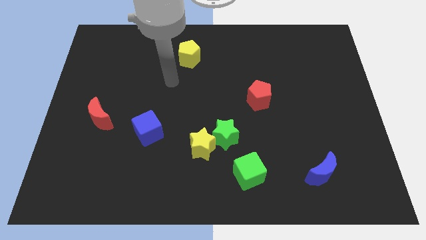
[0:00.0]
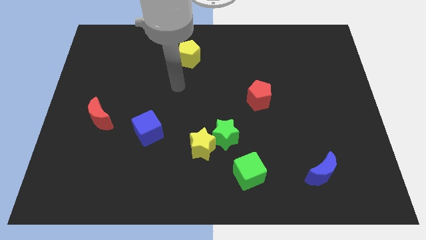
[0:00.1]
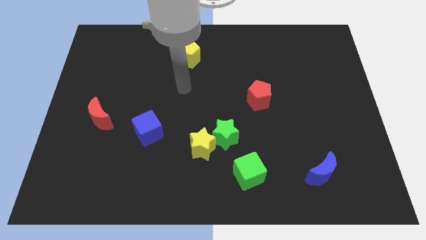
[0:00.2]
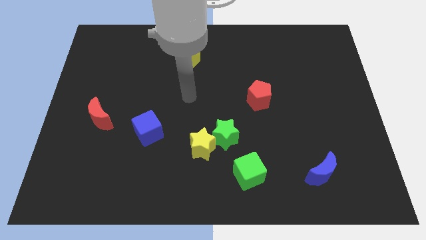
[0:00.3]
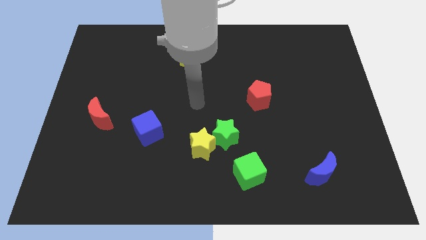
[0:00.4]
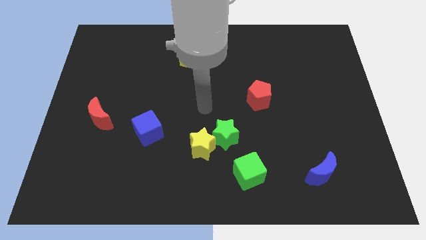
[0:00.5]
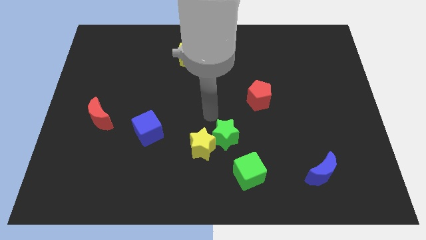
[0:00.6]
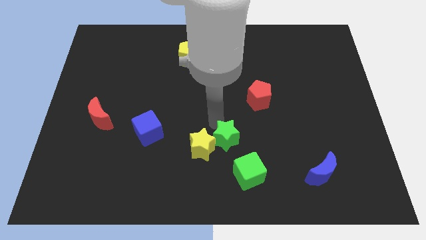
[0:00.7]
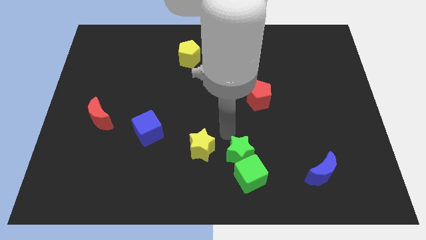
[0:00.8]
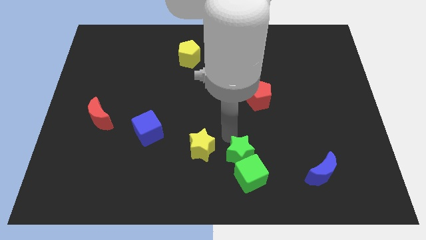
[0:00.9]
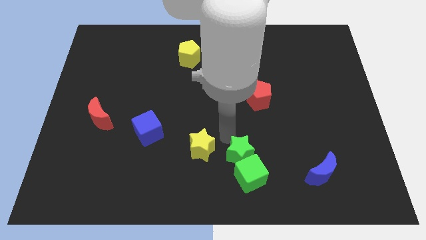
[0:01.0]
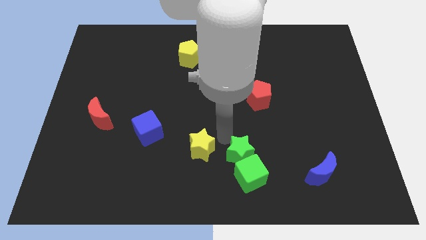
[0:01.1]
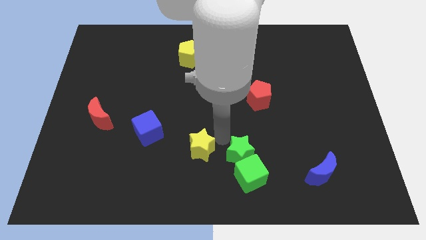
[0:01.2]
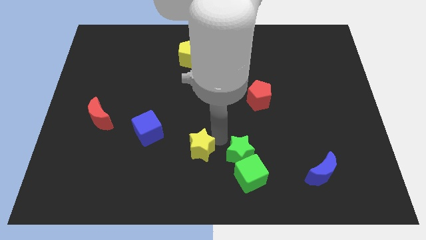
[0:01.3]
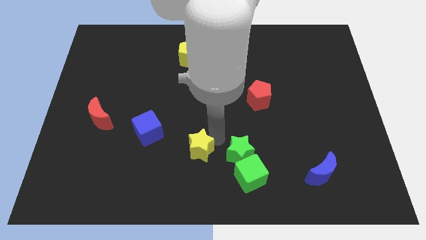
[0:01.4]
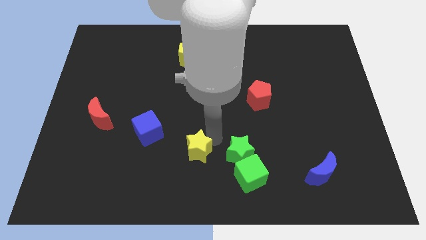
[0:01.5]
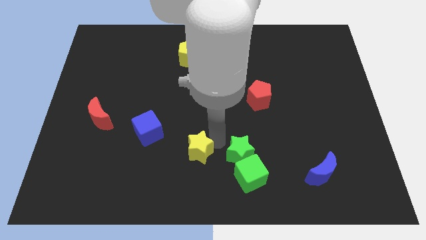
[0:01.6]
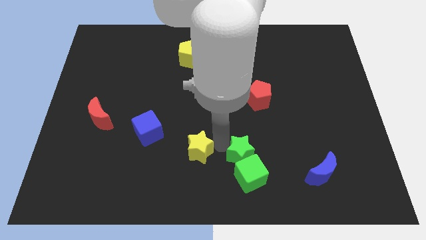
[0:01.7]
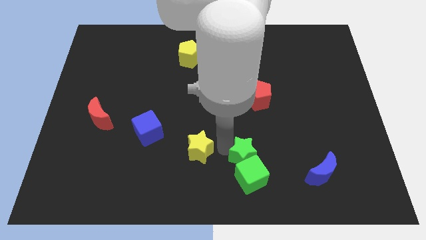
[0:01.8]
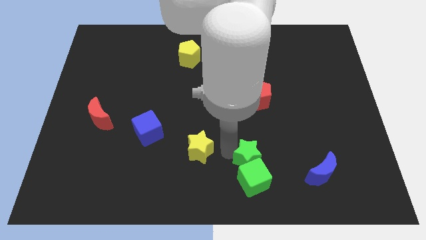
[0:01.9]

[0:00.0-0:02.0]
separate the yellow star from the green star

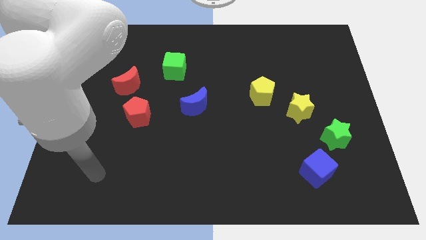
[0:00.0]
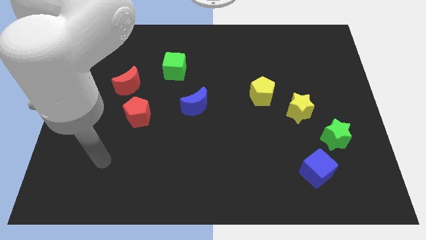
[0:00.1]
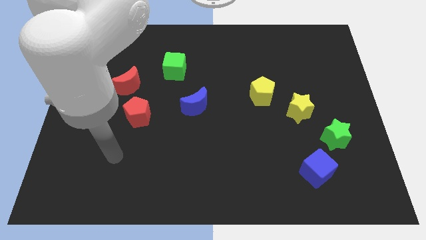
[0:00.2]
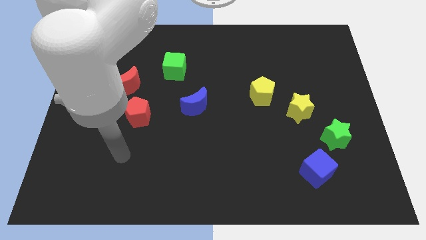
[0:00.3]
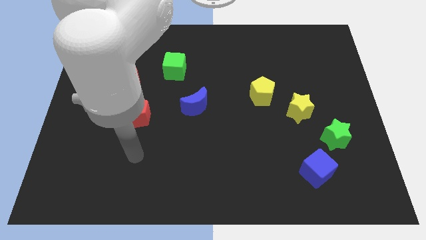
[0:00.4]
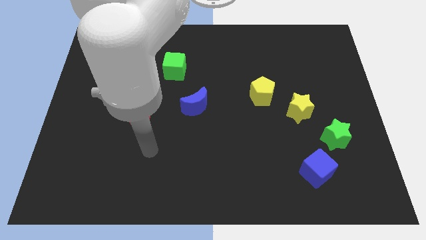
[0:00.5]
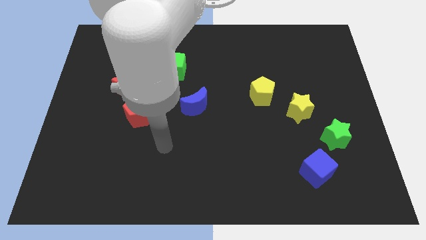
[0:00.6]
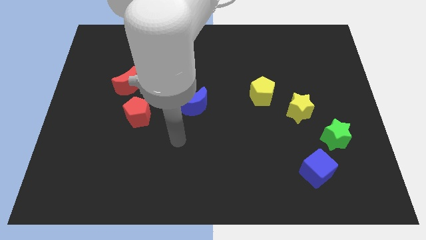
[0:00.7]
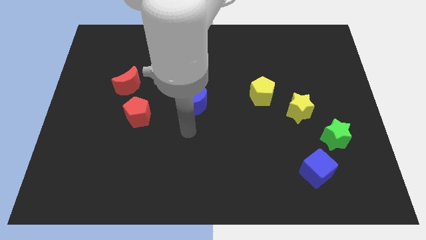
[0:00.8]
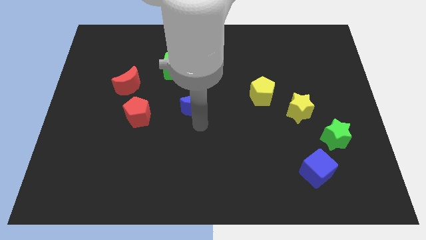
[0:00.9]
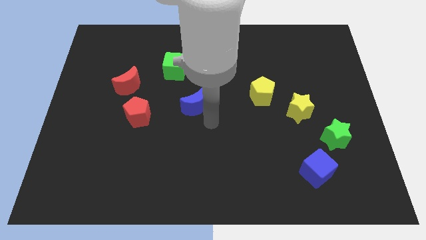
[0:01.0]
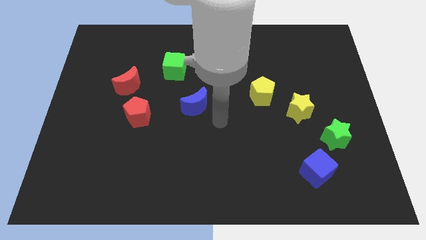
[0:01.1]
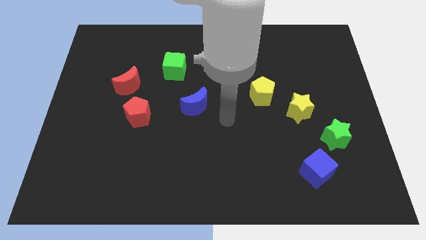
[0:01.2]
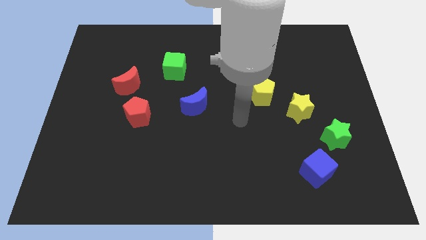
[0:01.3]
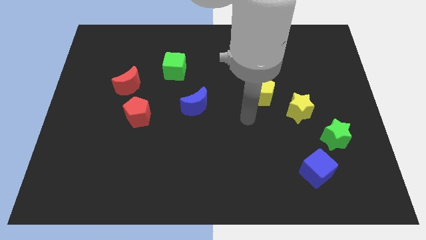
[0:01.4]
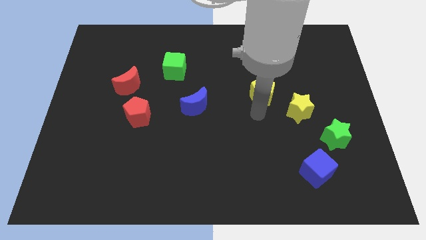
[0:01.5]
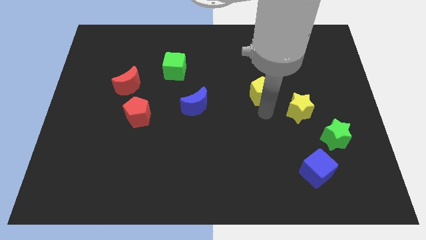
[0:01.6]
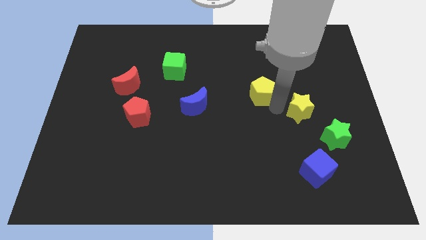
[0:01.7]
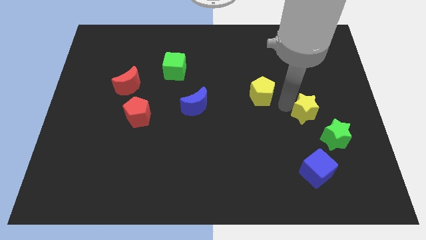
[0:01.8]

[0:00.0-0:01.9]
separate the yellow pentagon from the yellow star

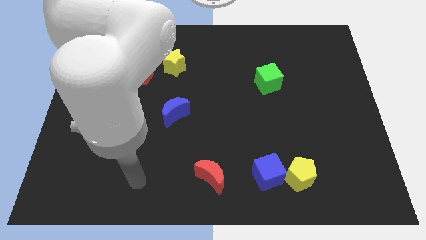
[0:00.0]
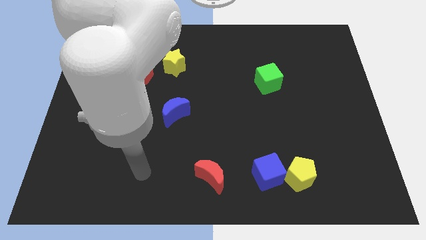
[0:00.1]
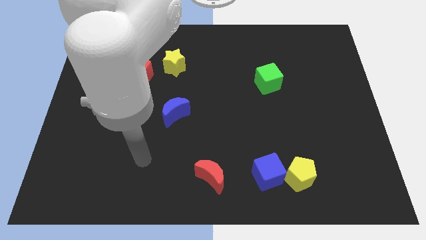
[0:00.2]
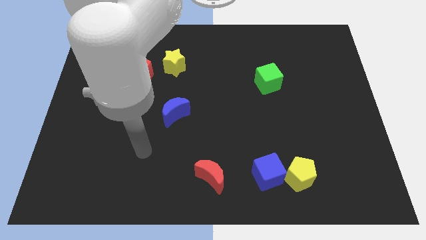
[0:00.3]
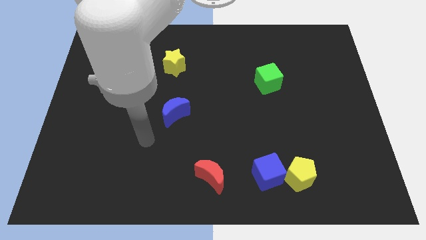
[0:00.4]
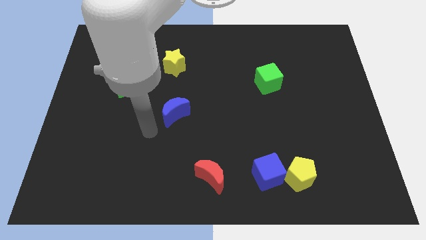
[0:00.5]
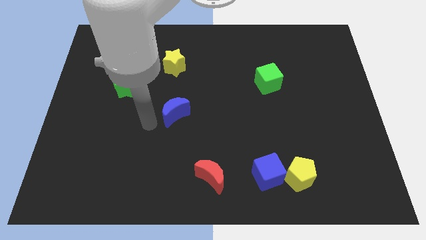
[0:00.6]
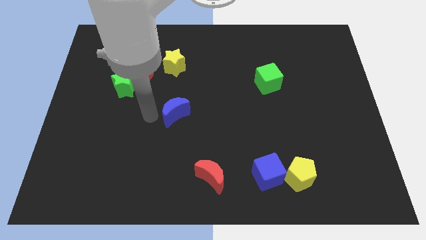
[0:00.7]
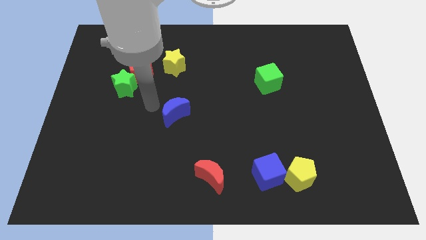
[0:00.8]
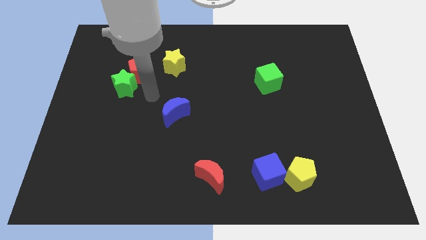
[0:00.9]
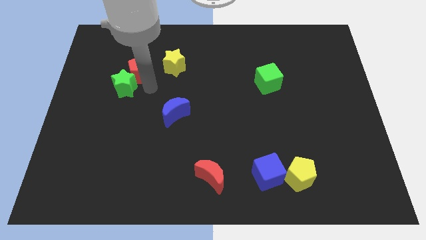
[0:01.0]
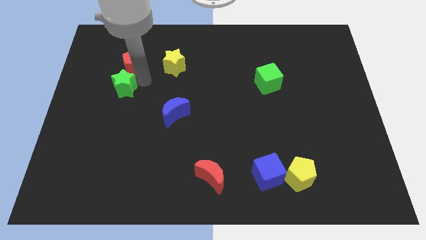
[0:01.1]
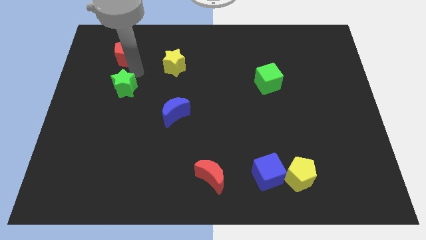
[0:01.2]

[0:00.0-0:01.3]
separate the green star from the red pentagon

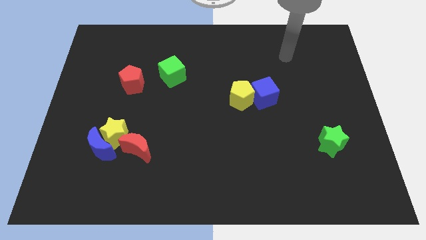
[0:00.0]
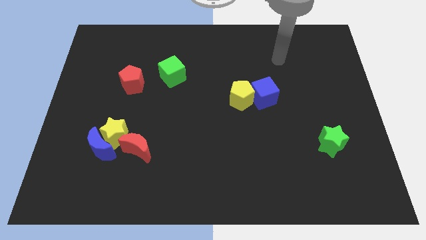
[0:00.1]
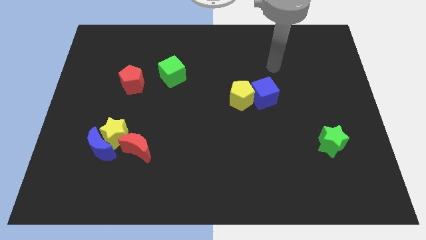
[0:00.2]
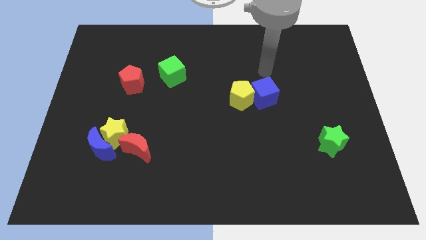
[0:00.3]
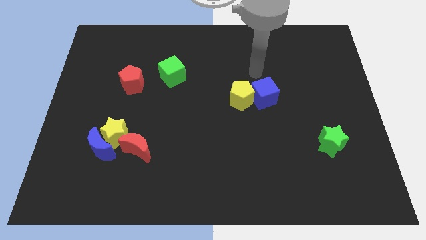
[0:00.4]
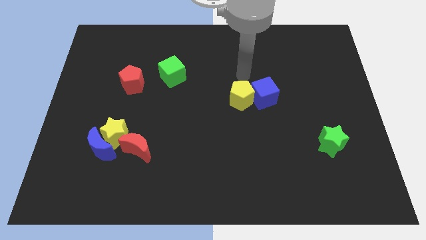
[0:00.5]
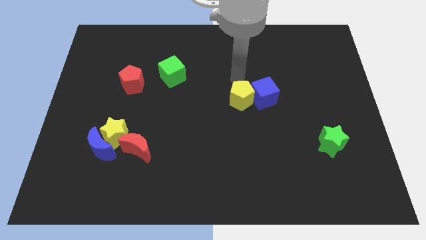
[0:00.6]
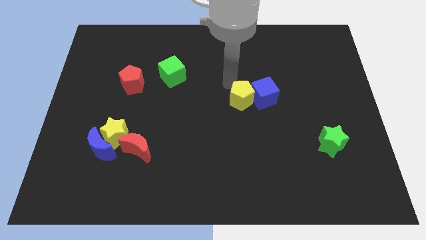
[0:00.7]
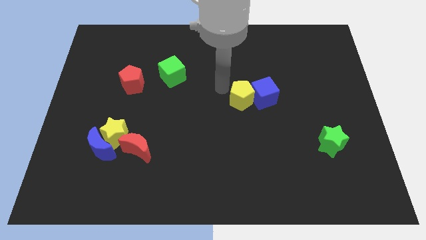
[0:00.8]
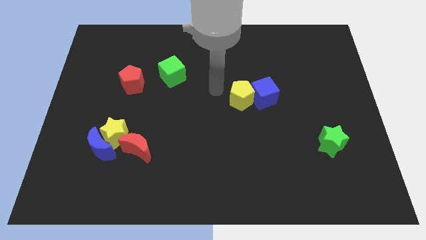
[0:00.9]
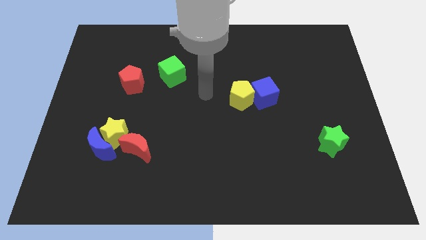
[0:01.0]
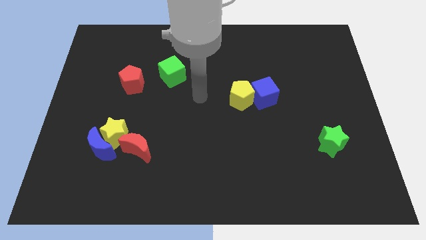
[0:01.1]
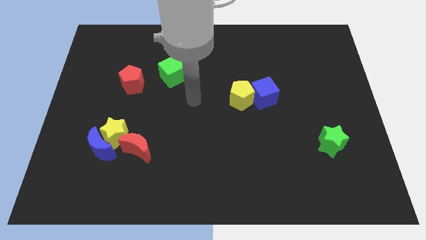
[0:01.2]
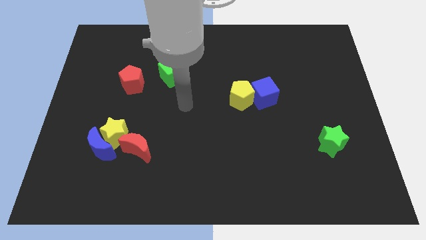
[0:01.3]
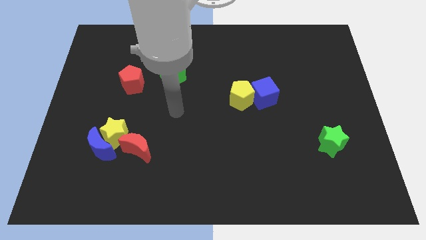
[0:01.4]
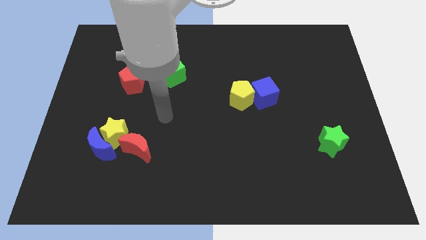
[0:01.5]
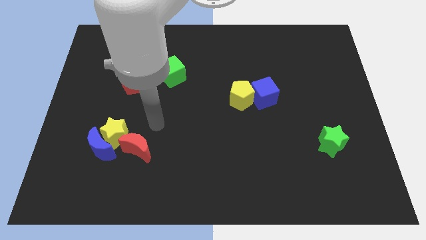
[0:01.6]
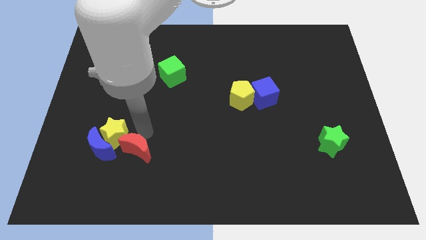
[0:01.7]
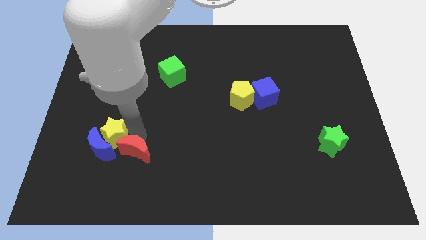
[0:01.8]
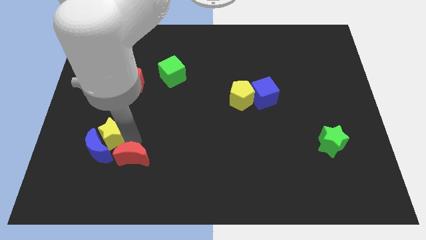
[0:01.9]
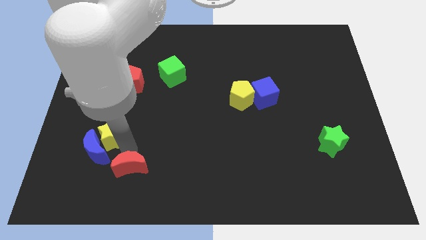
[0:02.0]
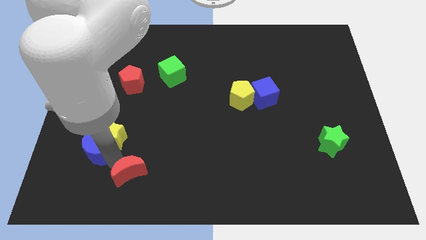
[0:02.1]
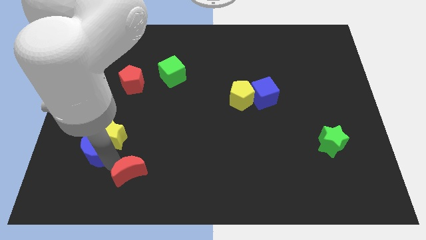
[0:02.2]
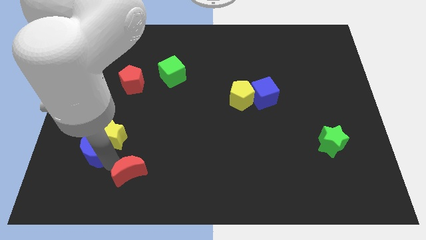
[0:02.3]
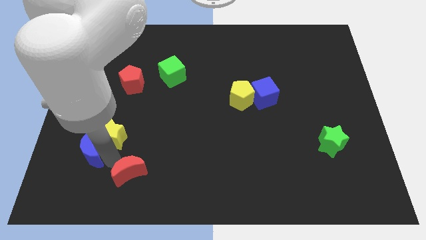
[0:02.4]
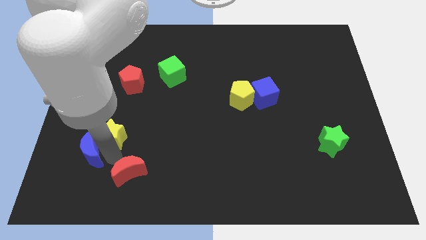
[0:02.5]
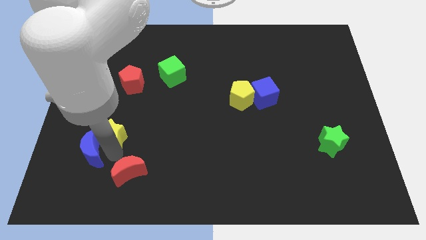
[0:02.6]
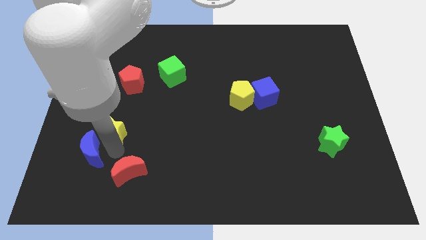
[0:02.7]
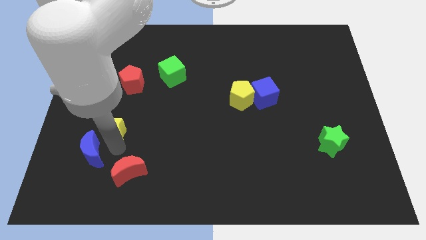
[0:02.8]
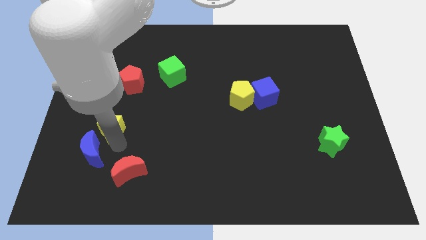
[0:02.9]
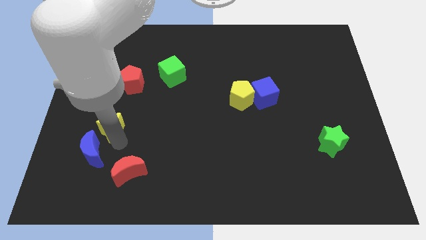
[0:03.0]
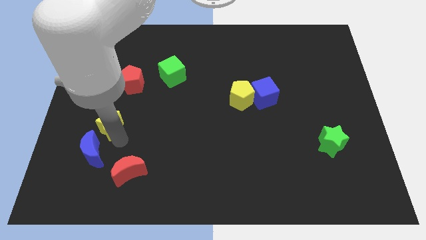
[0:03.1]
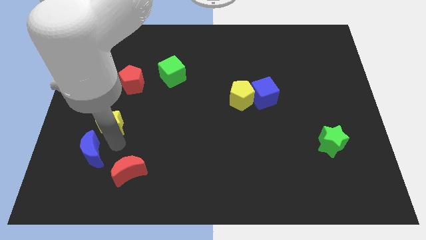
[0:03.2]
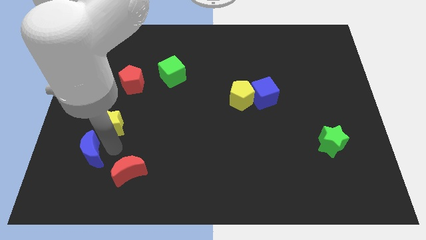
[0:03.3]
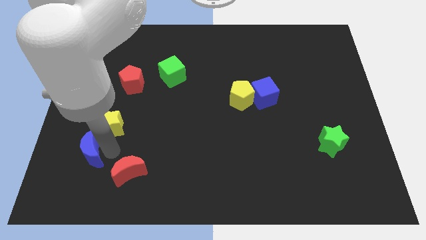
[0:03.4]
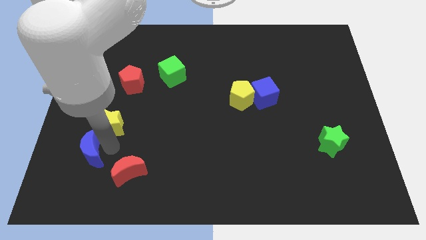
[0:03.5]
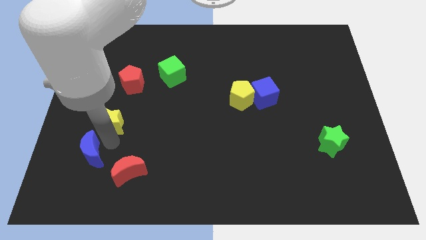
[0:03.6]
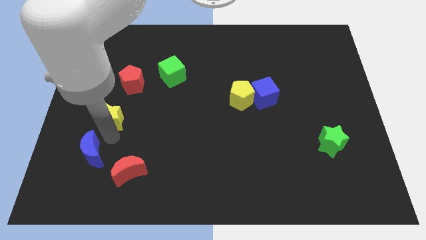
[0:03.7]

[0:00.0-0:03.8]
move the yellow star away from the blue moon and red moon

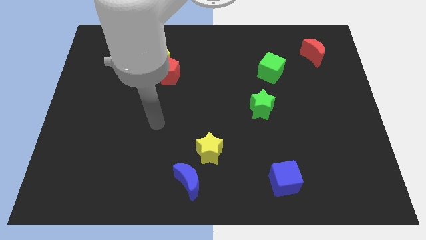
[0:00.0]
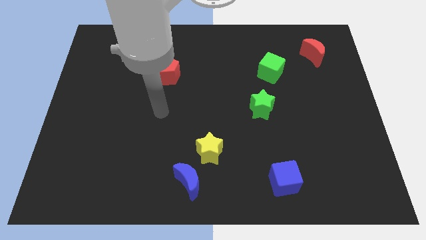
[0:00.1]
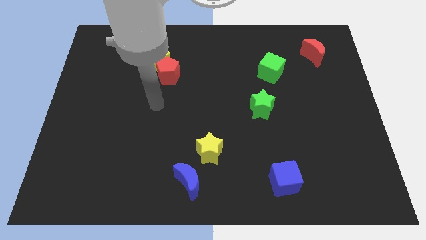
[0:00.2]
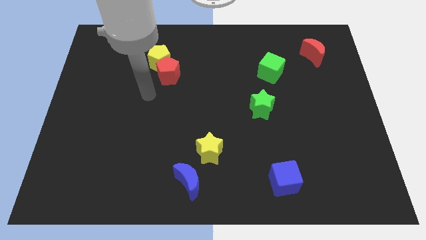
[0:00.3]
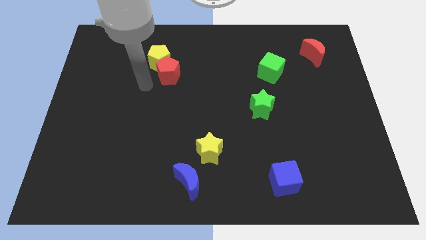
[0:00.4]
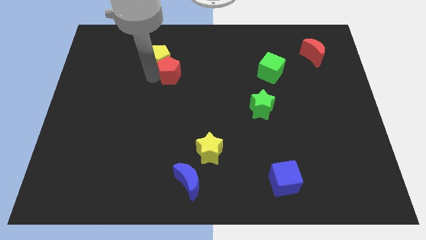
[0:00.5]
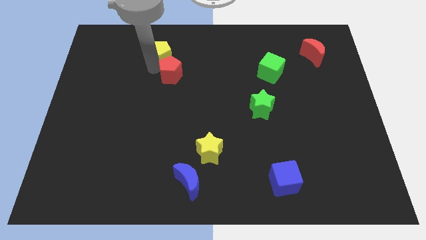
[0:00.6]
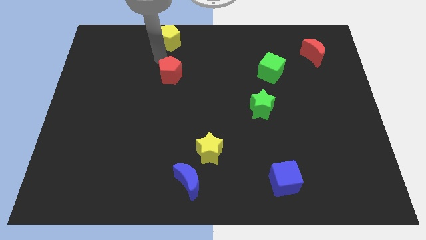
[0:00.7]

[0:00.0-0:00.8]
pull the red pentagon apart from the yellow pentagon
